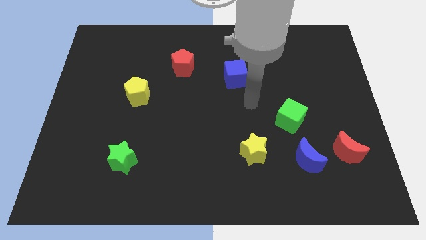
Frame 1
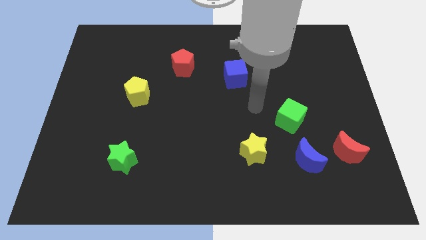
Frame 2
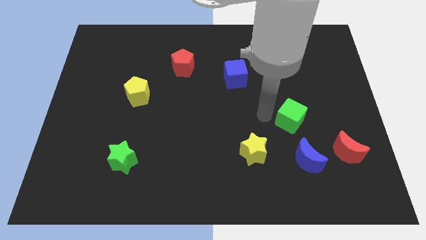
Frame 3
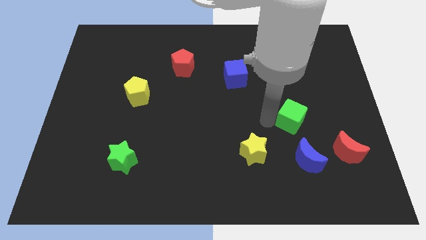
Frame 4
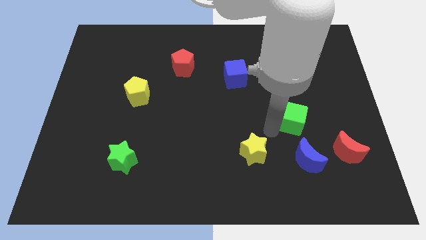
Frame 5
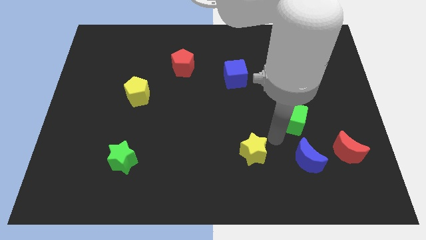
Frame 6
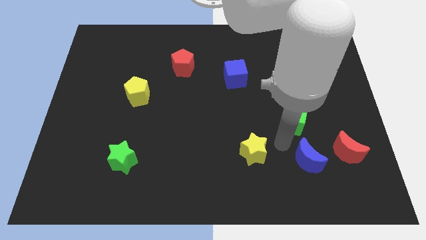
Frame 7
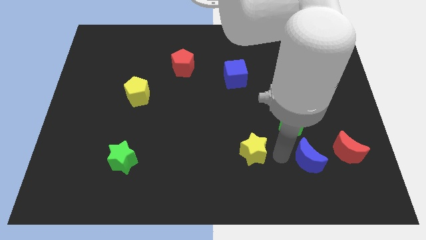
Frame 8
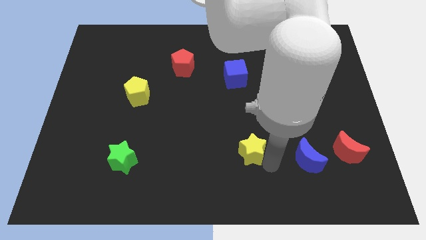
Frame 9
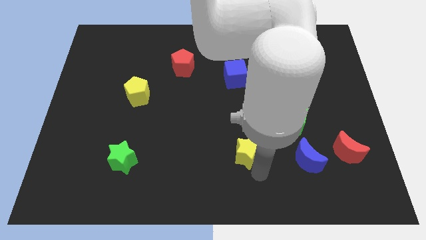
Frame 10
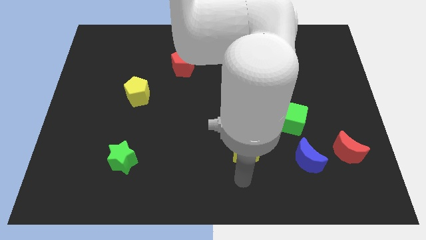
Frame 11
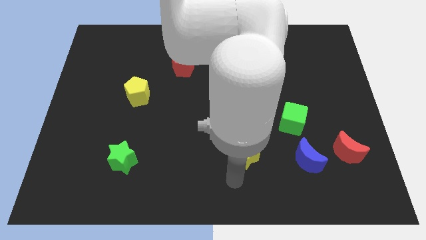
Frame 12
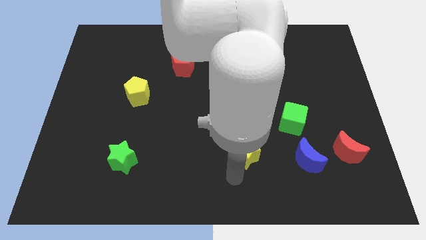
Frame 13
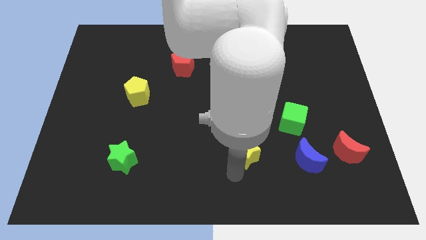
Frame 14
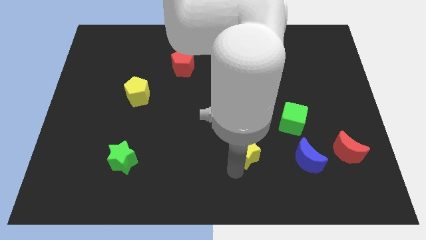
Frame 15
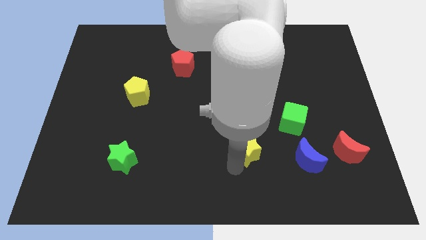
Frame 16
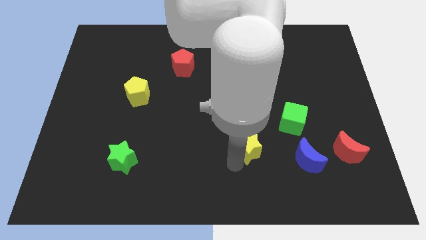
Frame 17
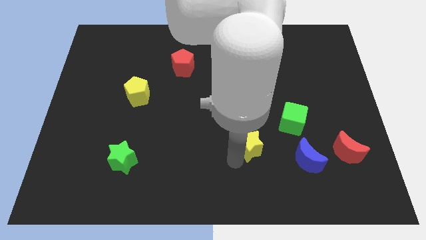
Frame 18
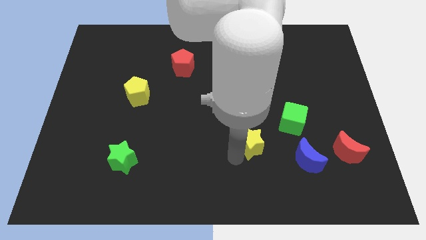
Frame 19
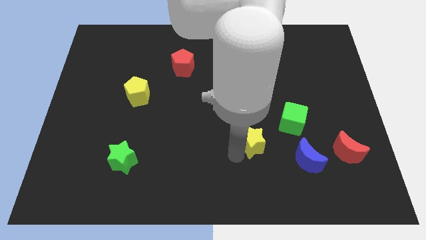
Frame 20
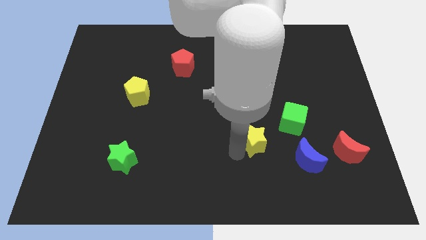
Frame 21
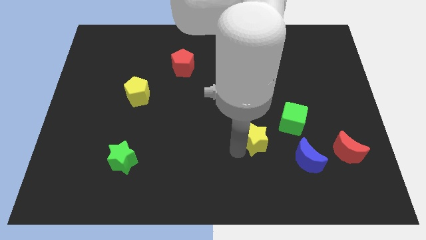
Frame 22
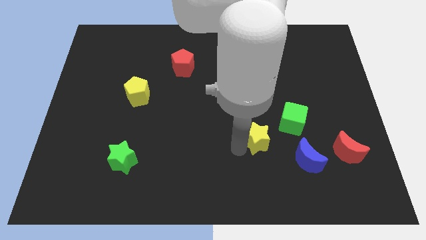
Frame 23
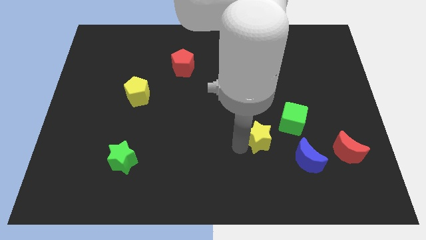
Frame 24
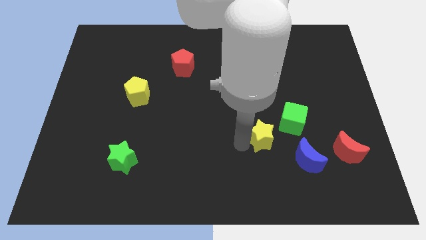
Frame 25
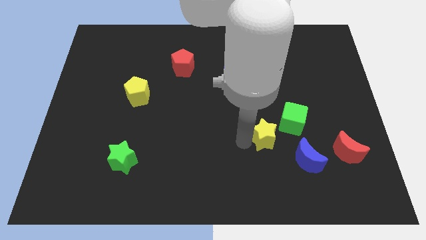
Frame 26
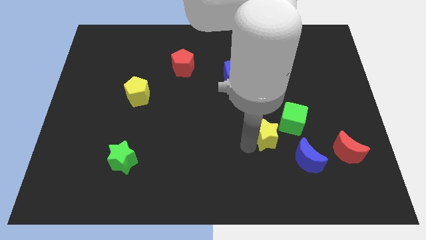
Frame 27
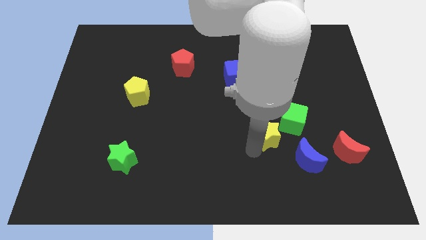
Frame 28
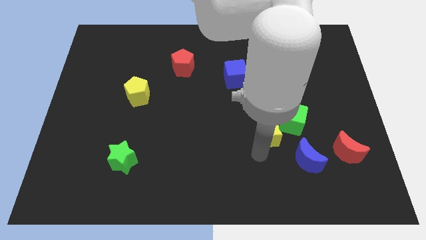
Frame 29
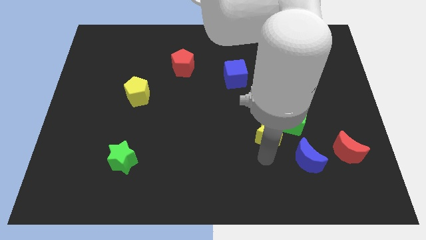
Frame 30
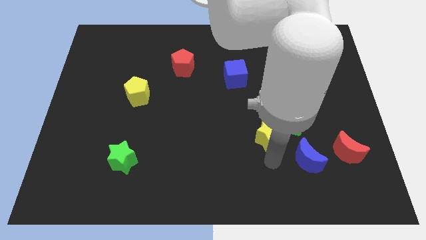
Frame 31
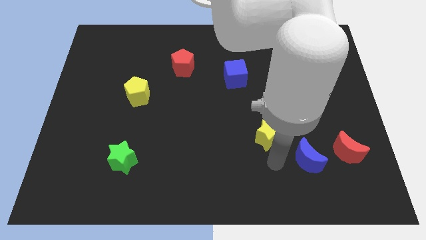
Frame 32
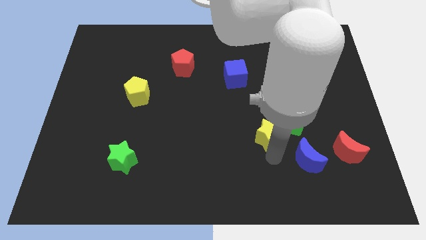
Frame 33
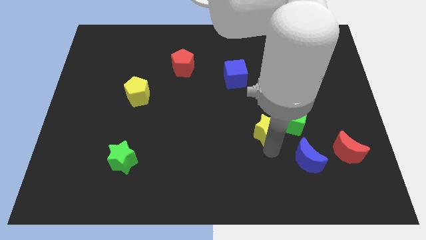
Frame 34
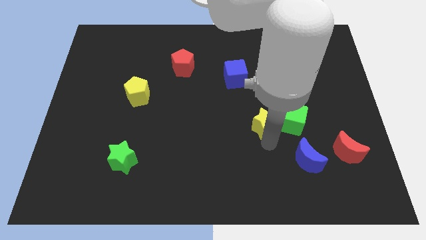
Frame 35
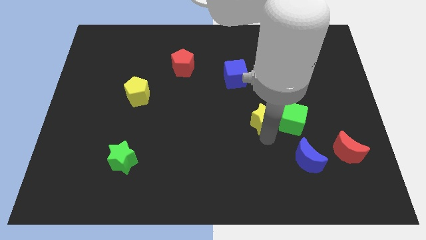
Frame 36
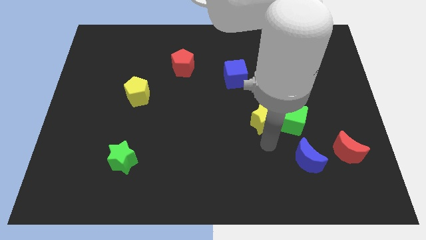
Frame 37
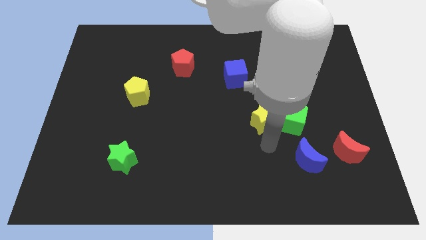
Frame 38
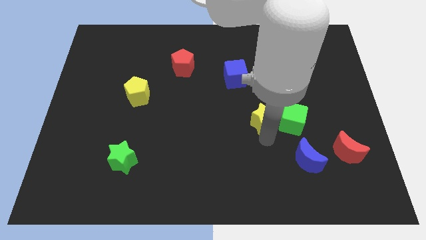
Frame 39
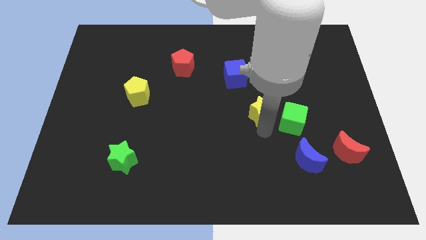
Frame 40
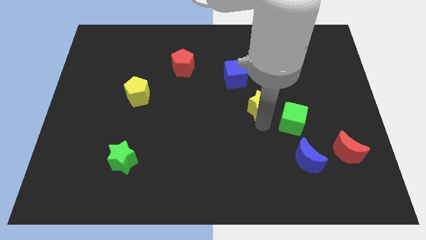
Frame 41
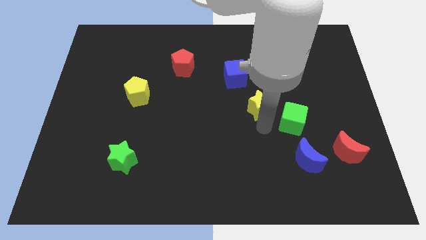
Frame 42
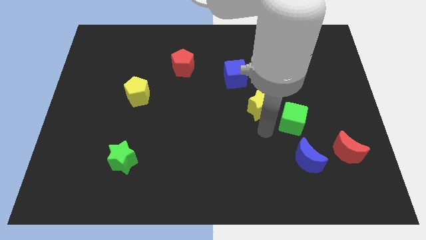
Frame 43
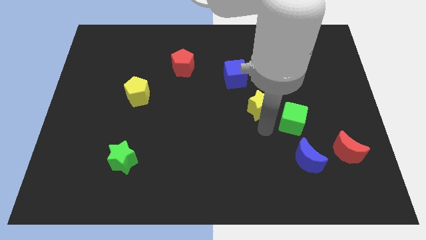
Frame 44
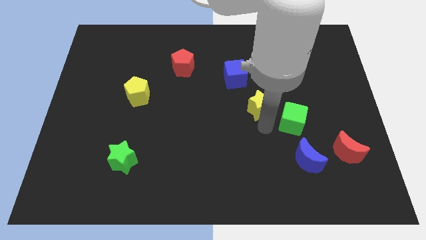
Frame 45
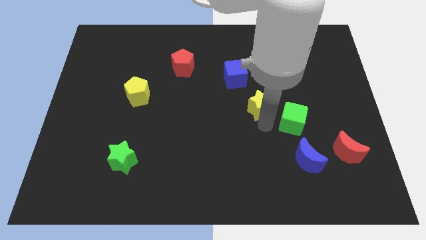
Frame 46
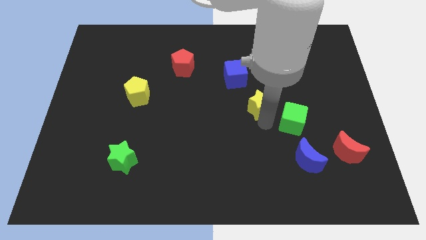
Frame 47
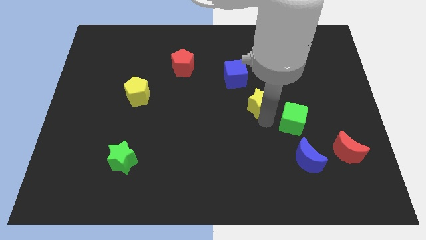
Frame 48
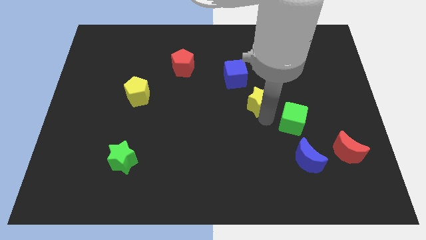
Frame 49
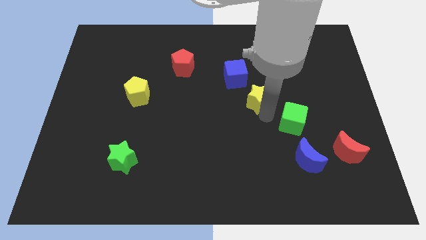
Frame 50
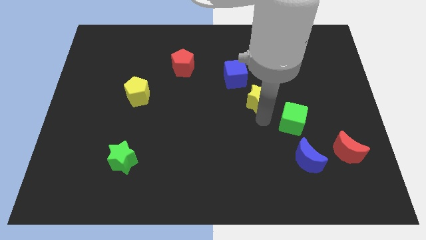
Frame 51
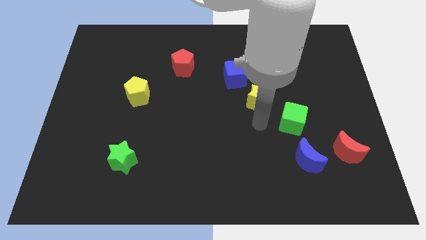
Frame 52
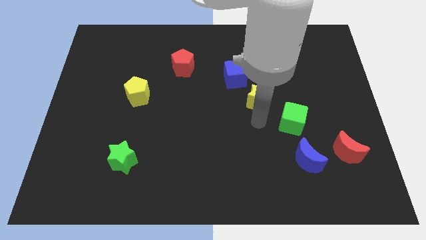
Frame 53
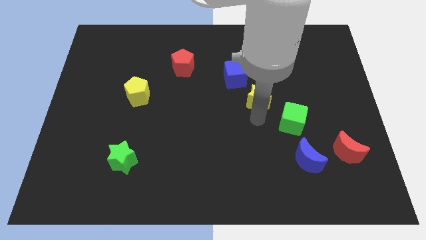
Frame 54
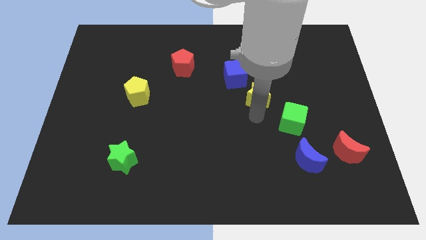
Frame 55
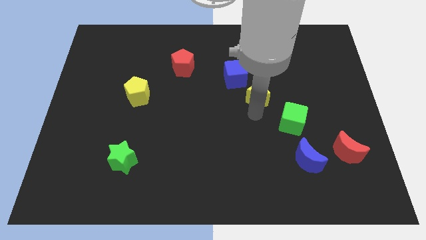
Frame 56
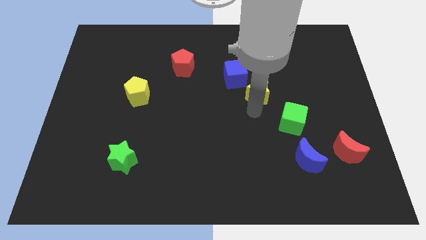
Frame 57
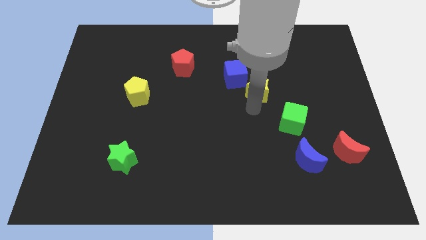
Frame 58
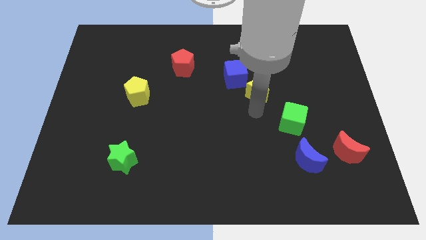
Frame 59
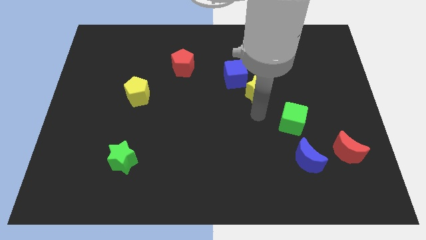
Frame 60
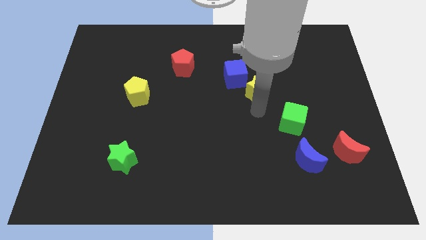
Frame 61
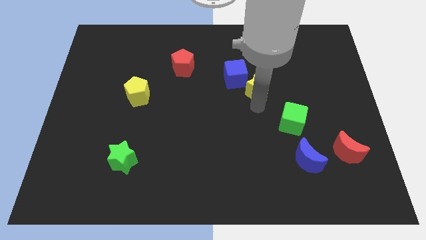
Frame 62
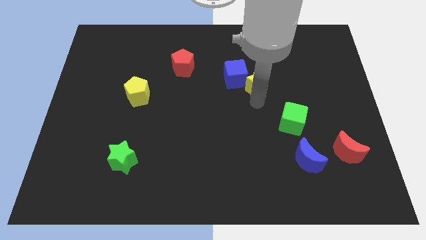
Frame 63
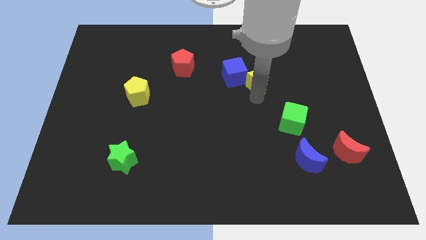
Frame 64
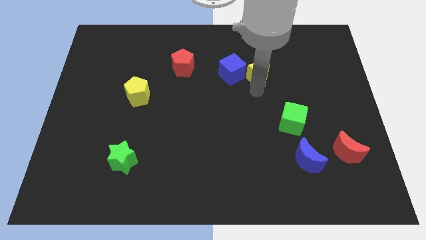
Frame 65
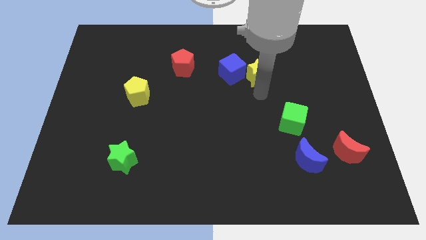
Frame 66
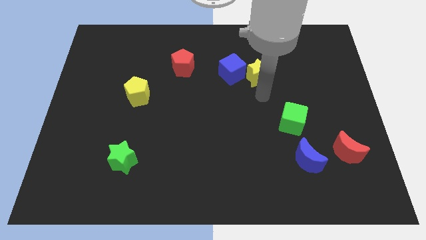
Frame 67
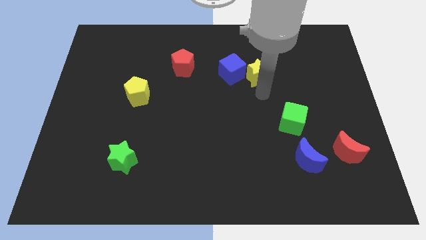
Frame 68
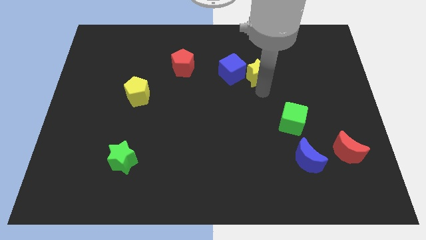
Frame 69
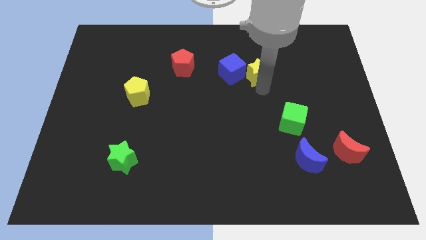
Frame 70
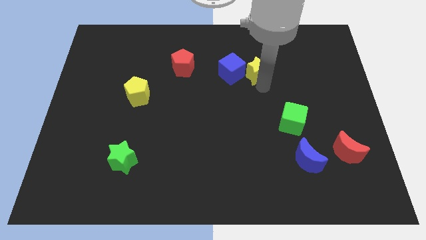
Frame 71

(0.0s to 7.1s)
put the yellow star diagonally up and to the right of the blue cube
